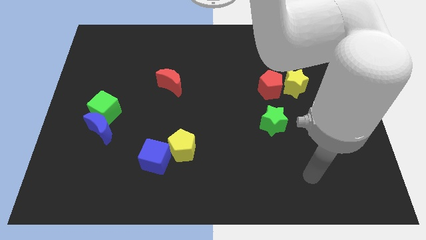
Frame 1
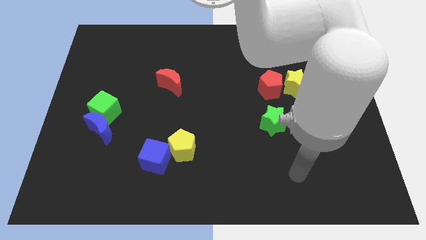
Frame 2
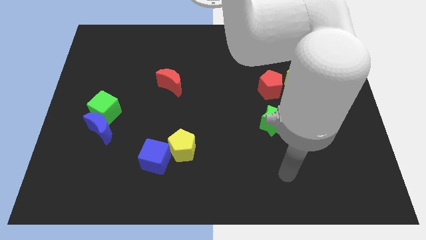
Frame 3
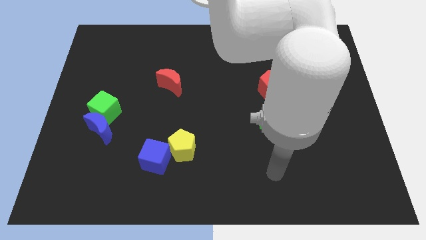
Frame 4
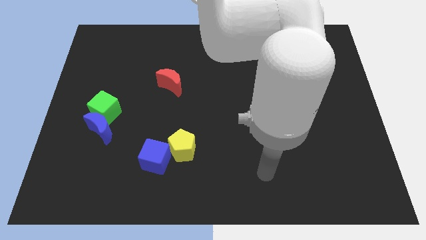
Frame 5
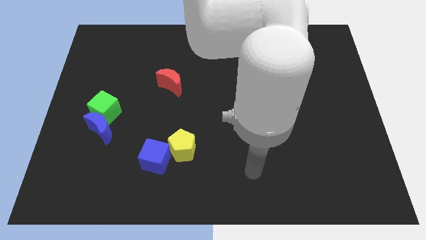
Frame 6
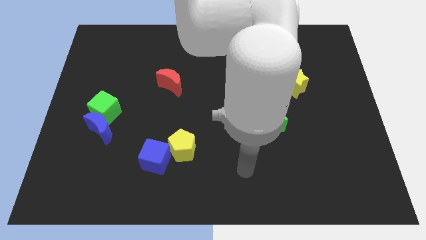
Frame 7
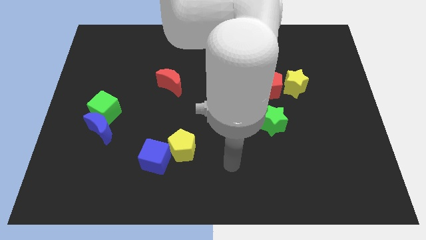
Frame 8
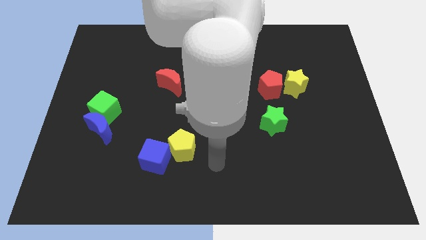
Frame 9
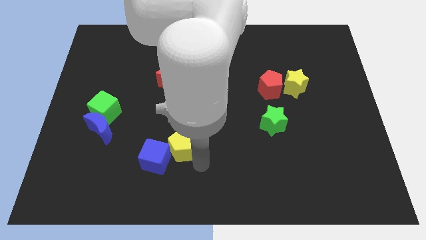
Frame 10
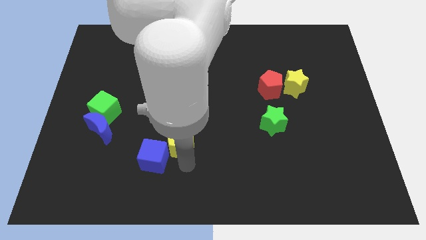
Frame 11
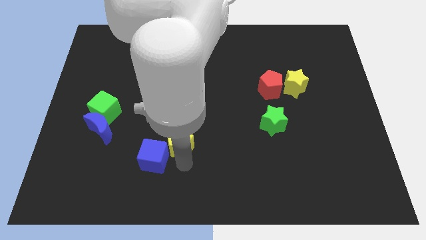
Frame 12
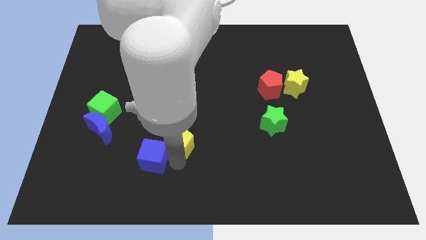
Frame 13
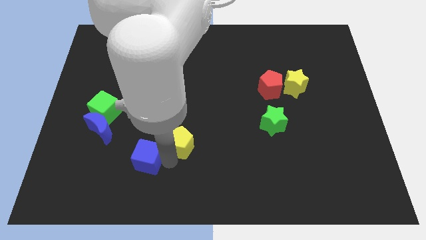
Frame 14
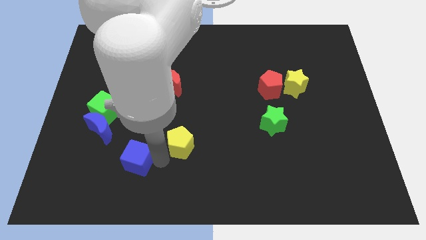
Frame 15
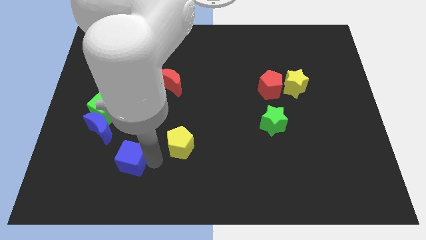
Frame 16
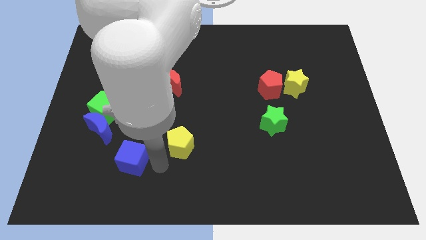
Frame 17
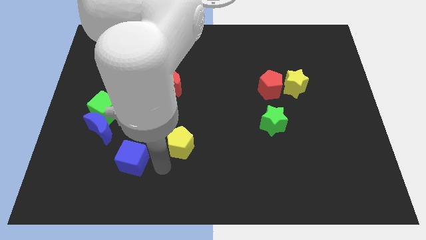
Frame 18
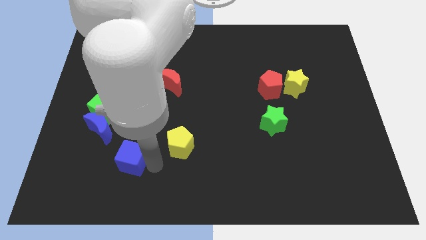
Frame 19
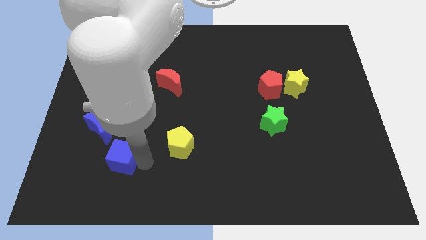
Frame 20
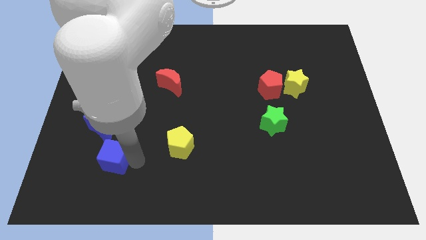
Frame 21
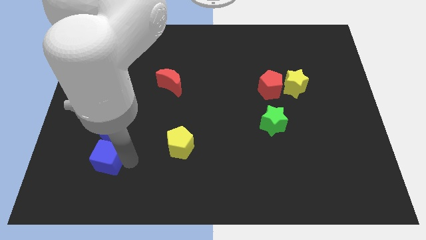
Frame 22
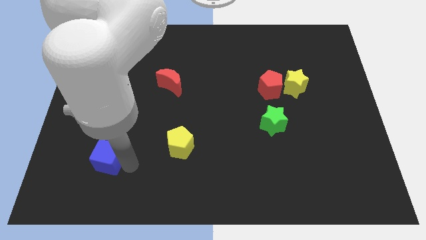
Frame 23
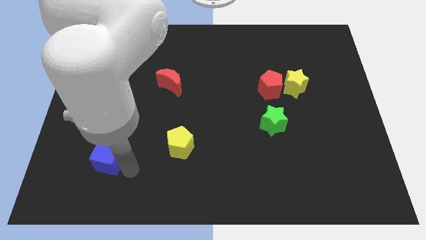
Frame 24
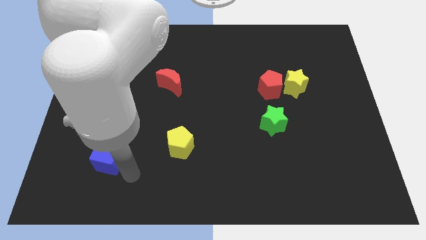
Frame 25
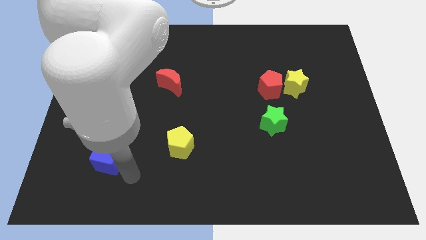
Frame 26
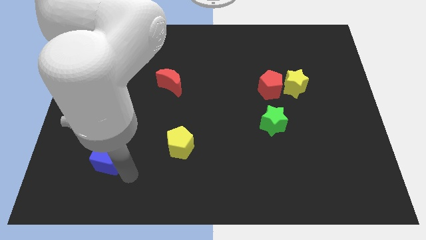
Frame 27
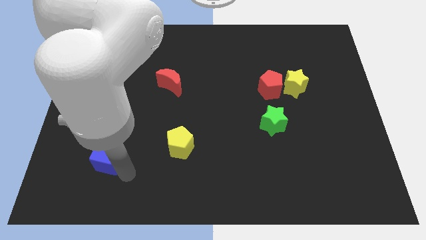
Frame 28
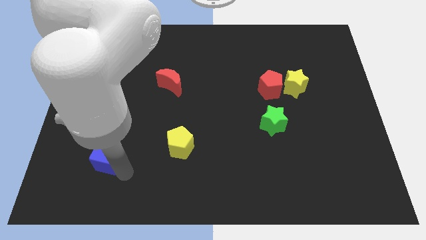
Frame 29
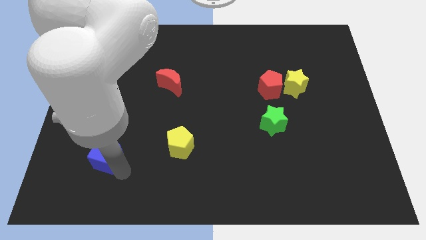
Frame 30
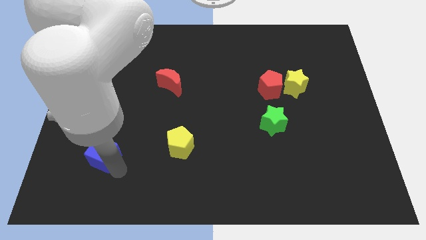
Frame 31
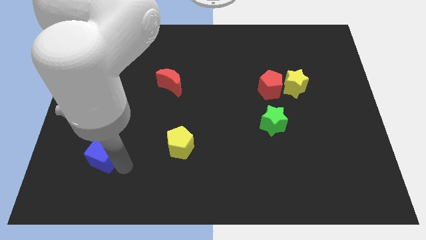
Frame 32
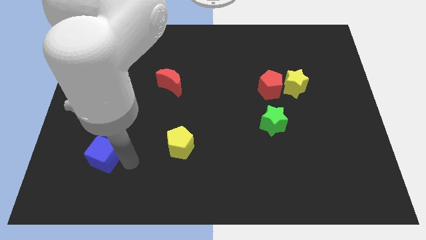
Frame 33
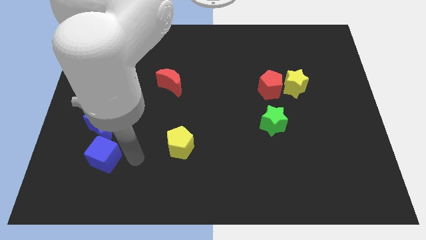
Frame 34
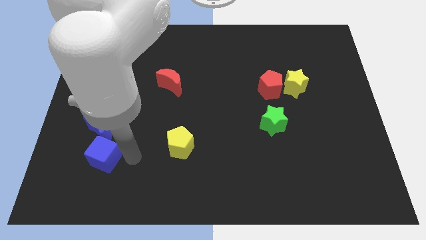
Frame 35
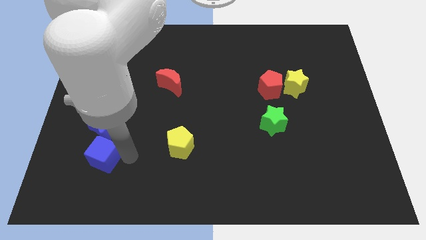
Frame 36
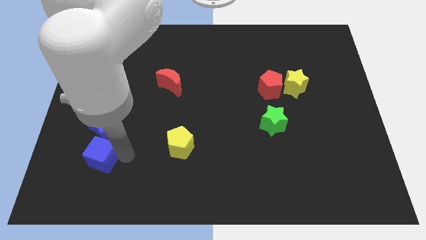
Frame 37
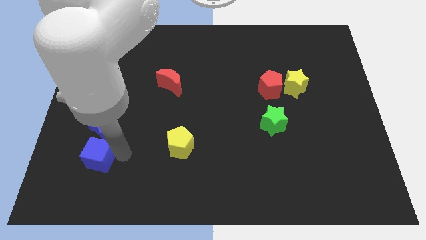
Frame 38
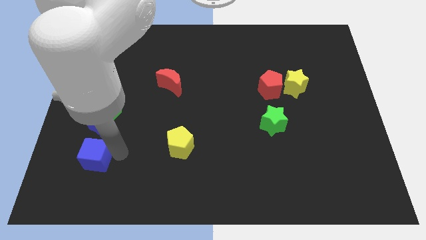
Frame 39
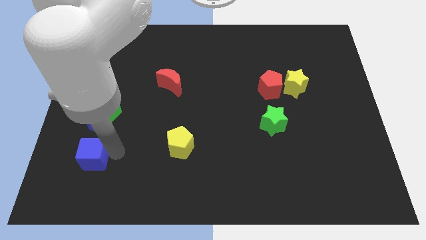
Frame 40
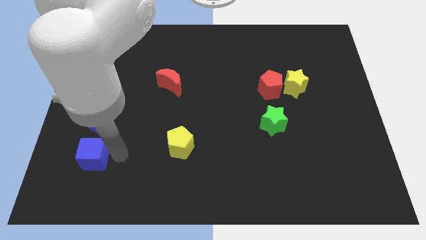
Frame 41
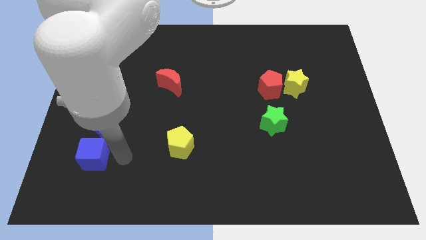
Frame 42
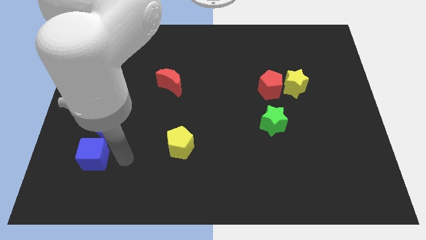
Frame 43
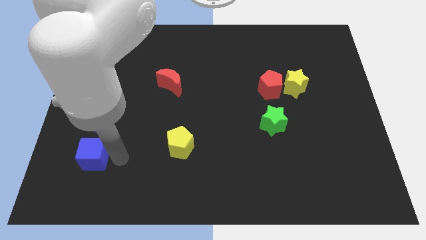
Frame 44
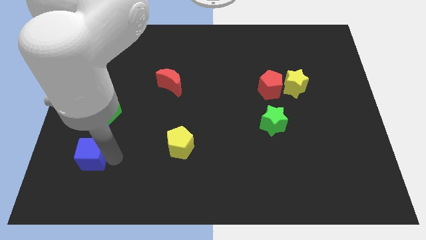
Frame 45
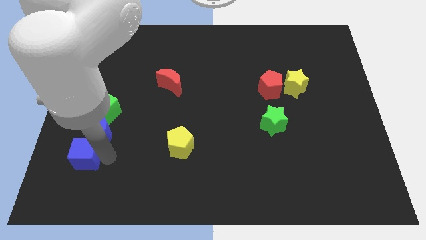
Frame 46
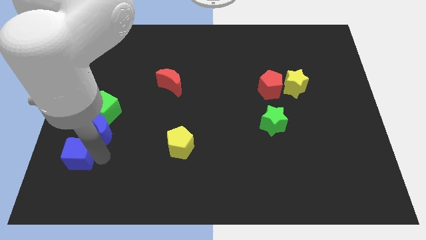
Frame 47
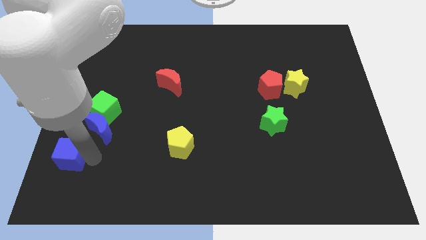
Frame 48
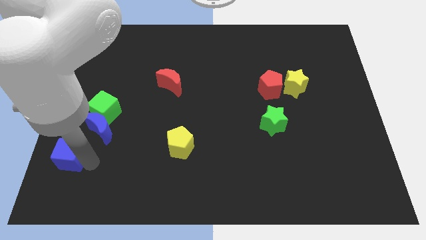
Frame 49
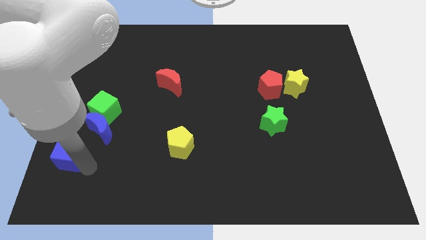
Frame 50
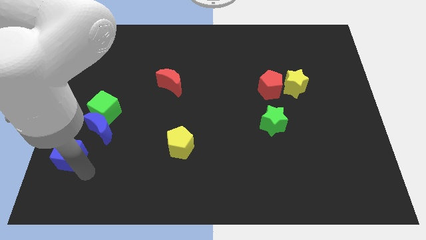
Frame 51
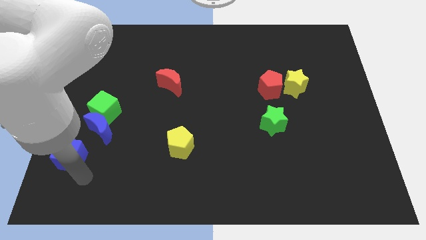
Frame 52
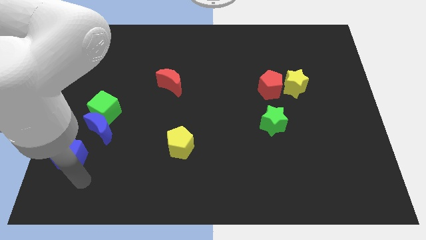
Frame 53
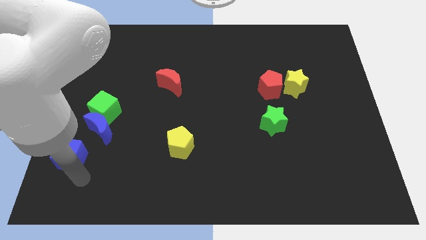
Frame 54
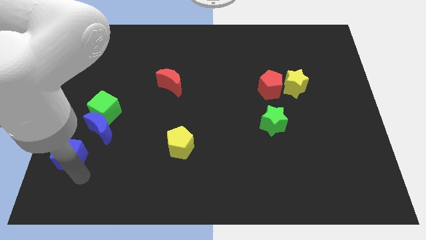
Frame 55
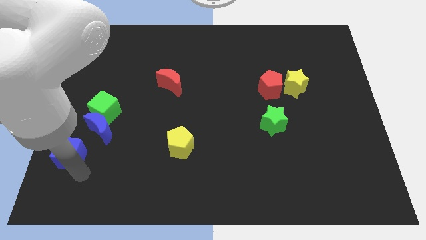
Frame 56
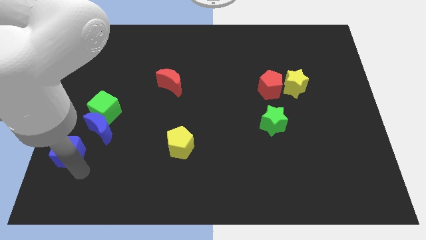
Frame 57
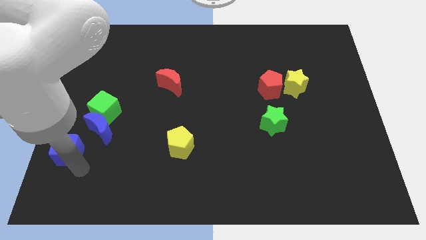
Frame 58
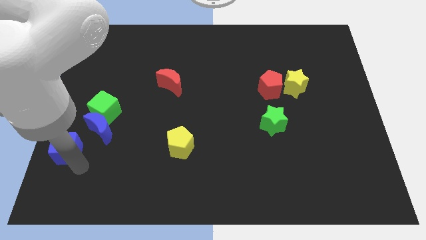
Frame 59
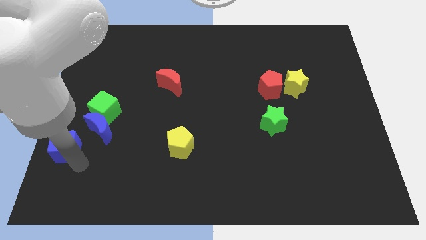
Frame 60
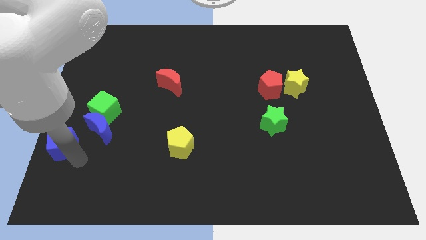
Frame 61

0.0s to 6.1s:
move the blue cube to the left side of the board
